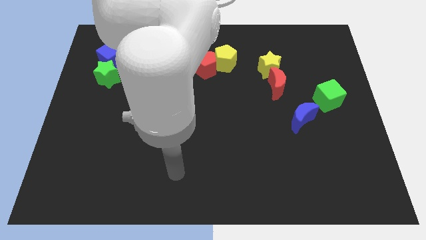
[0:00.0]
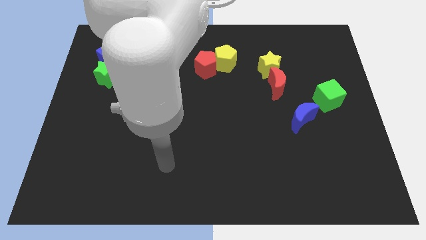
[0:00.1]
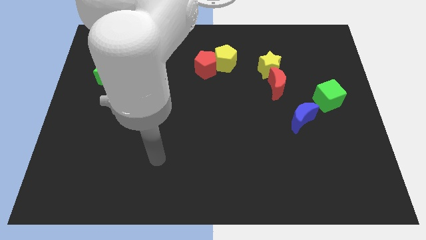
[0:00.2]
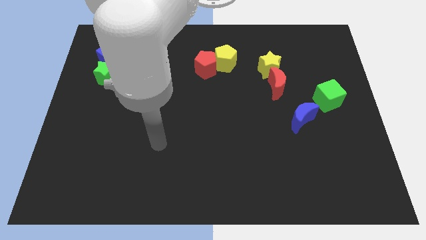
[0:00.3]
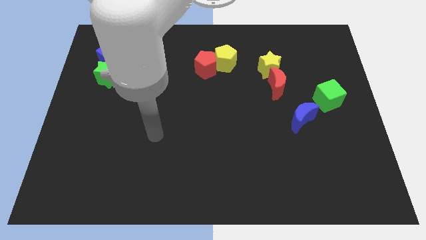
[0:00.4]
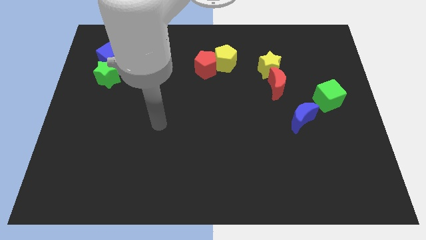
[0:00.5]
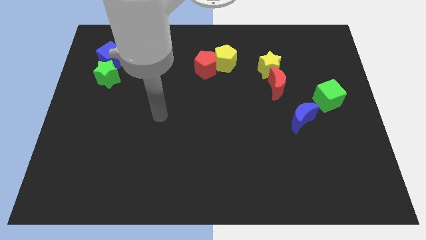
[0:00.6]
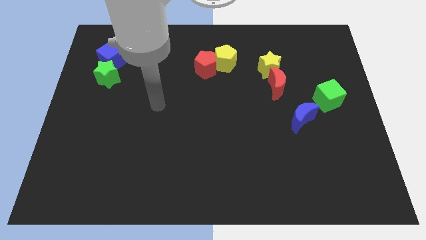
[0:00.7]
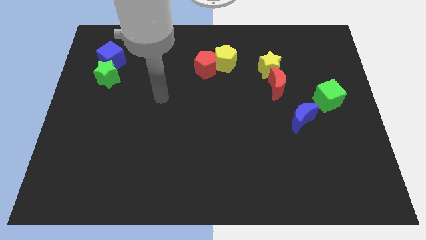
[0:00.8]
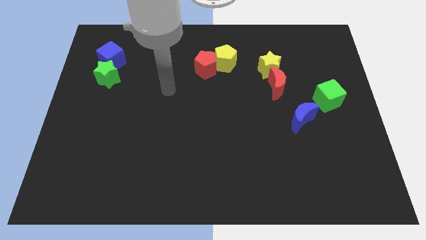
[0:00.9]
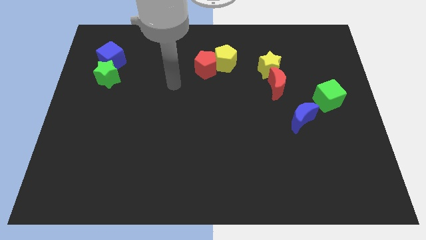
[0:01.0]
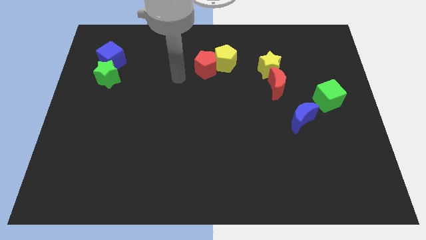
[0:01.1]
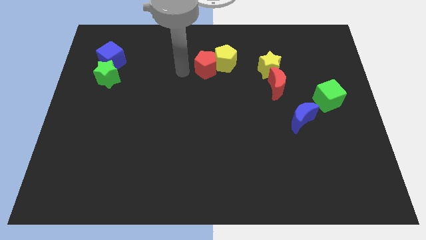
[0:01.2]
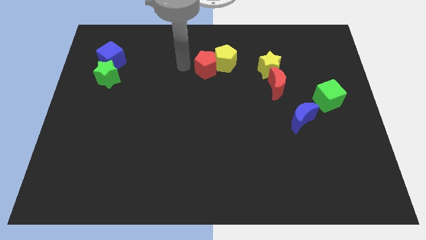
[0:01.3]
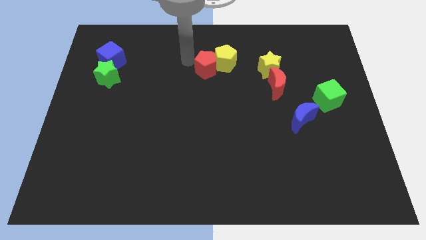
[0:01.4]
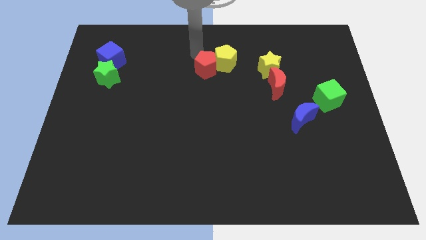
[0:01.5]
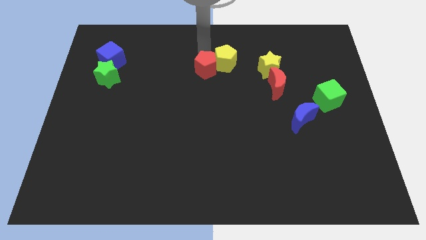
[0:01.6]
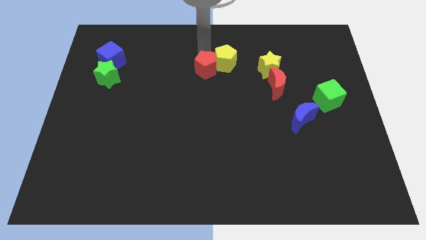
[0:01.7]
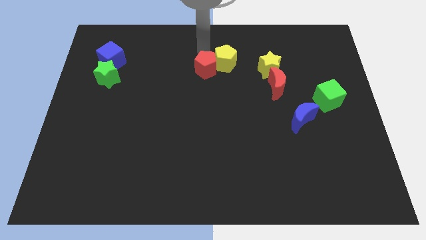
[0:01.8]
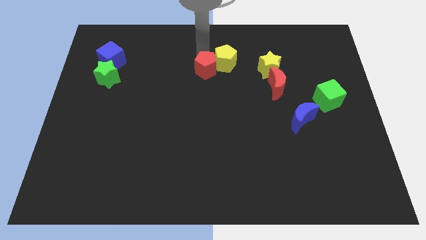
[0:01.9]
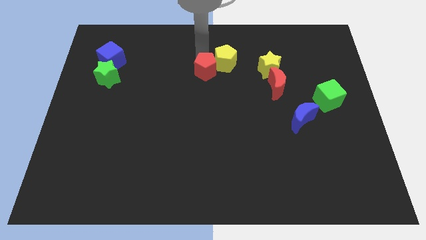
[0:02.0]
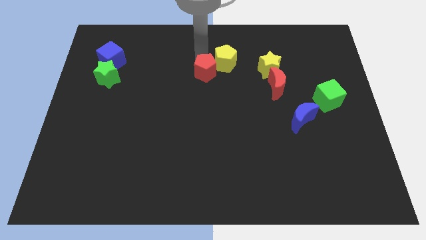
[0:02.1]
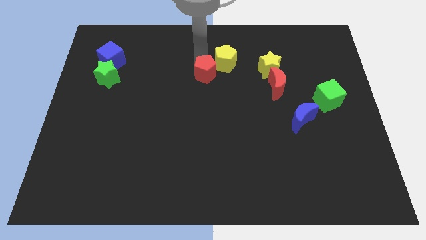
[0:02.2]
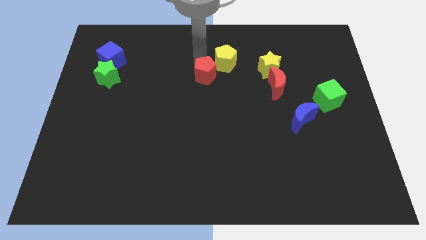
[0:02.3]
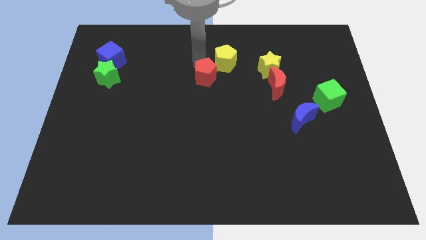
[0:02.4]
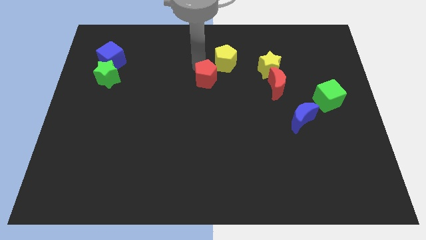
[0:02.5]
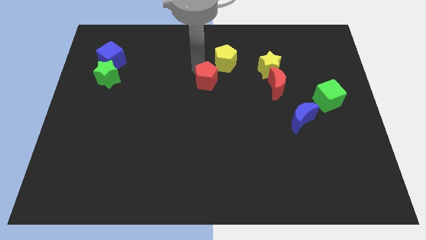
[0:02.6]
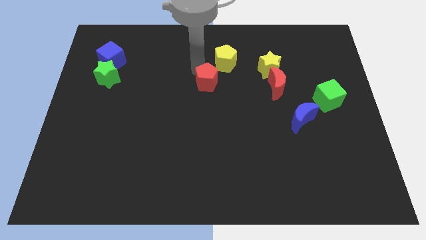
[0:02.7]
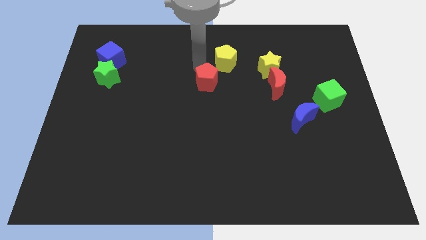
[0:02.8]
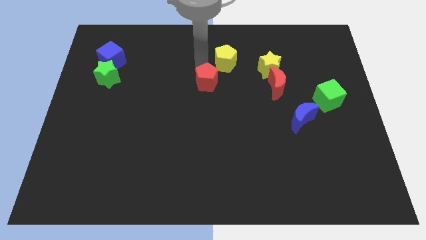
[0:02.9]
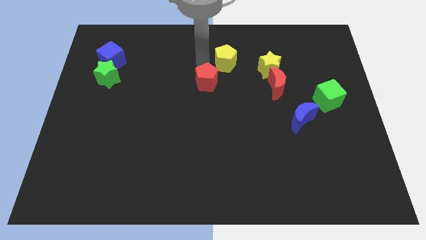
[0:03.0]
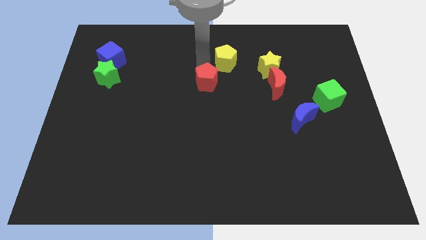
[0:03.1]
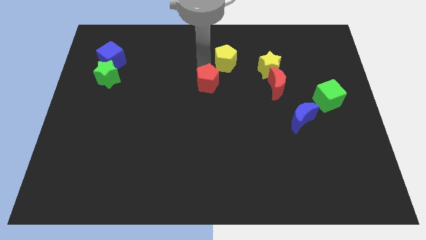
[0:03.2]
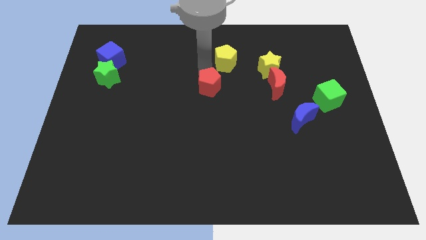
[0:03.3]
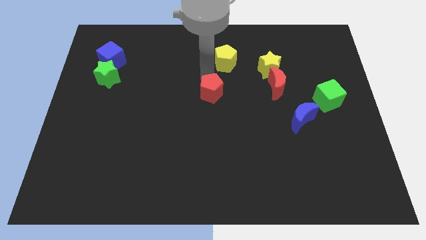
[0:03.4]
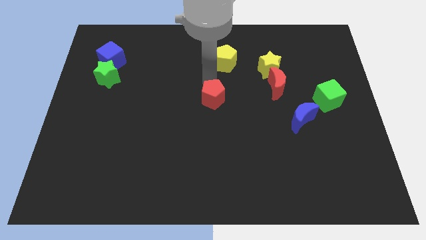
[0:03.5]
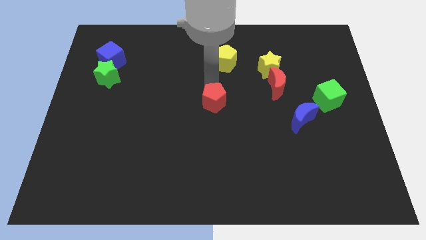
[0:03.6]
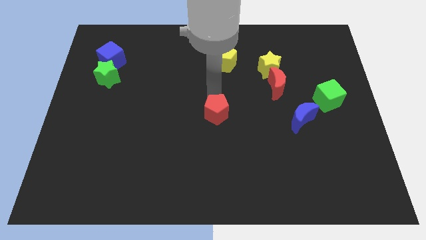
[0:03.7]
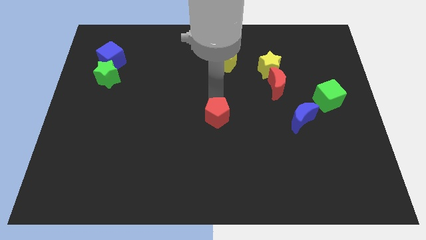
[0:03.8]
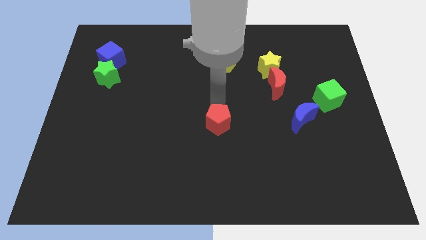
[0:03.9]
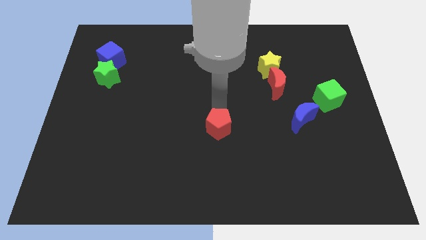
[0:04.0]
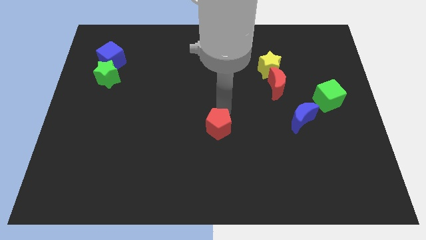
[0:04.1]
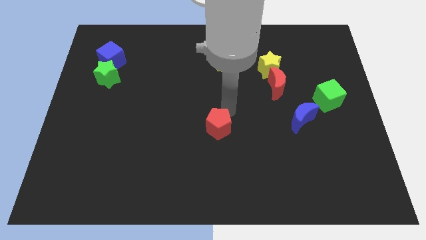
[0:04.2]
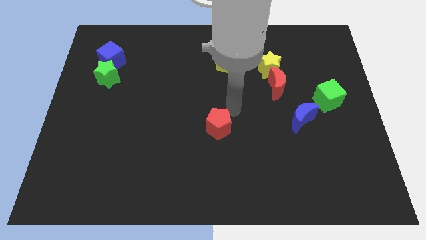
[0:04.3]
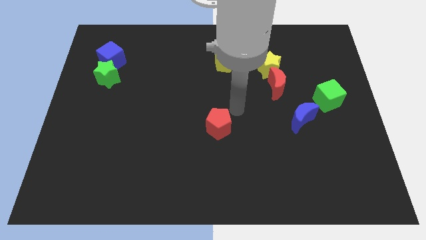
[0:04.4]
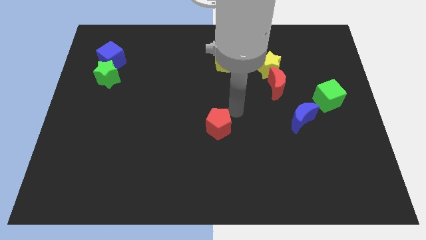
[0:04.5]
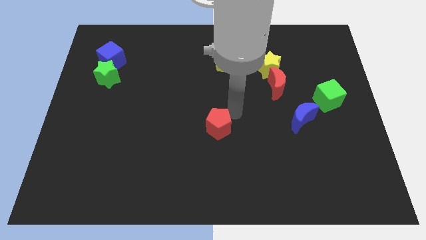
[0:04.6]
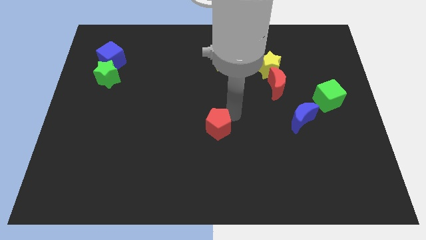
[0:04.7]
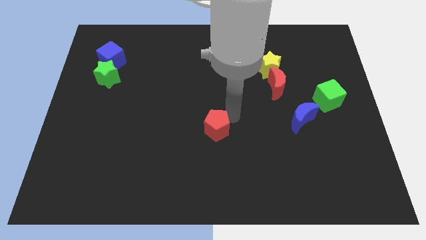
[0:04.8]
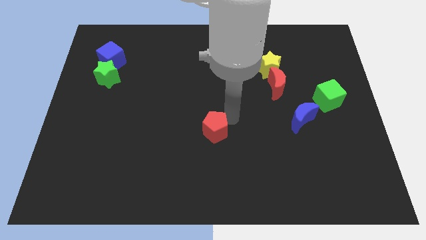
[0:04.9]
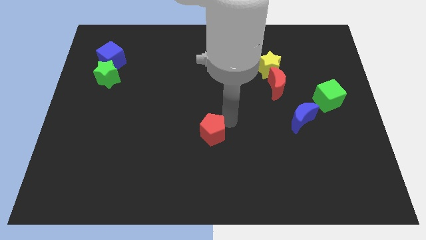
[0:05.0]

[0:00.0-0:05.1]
push the red pentagon down

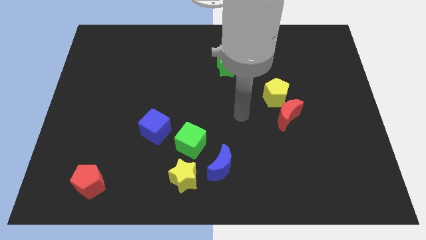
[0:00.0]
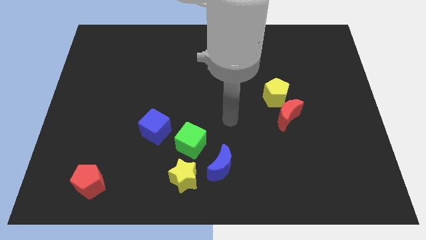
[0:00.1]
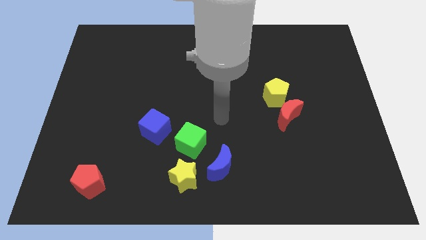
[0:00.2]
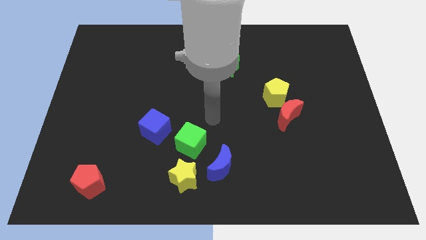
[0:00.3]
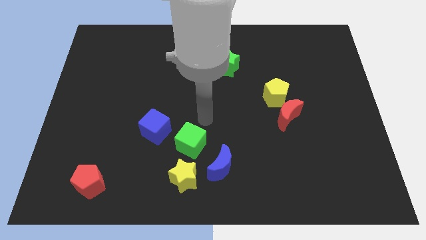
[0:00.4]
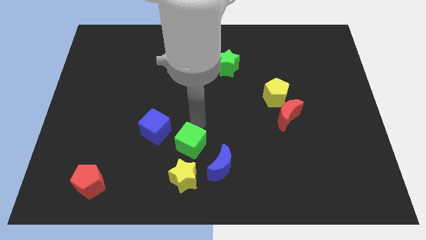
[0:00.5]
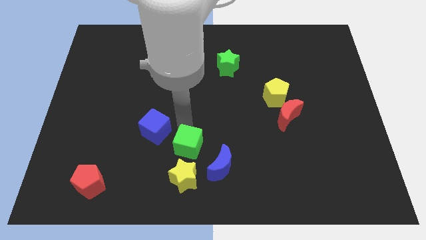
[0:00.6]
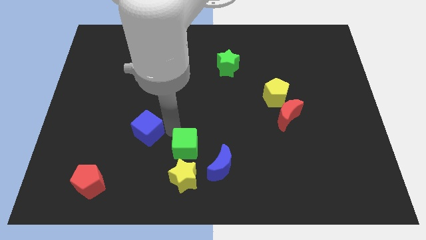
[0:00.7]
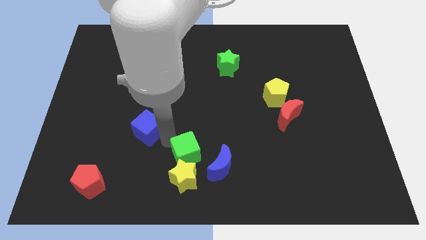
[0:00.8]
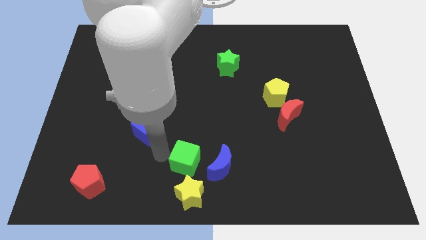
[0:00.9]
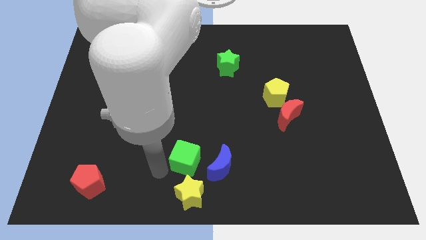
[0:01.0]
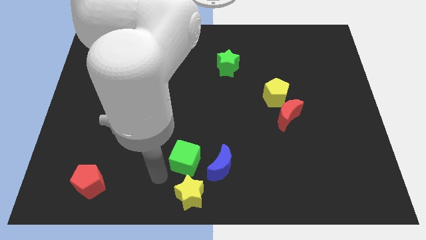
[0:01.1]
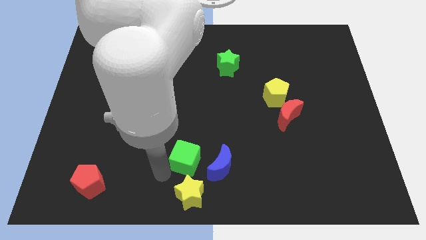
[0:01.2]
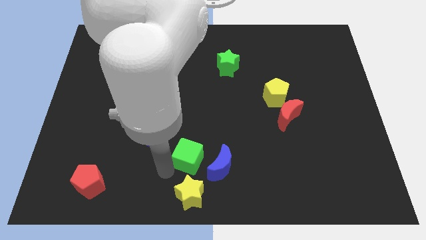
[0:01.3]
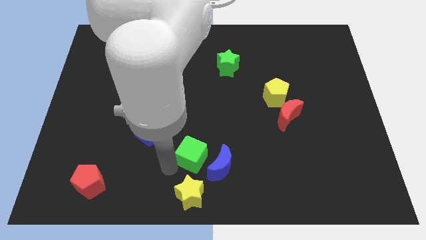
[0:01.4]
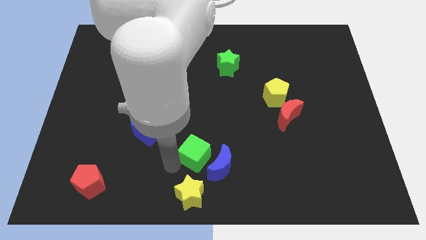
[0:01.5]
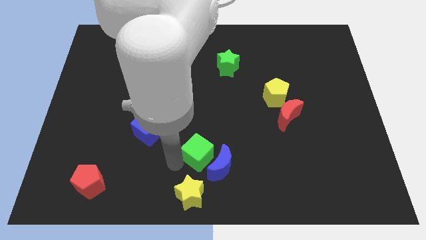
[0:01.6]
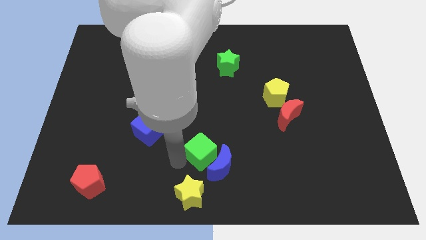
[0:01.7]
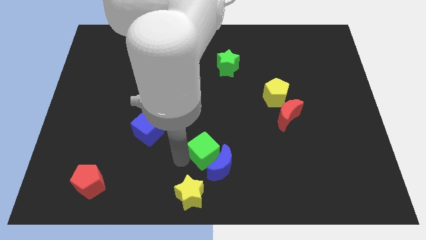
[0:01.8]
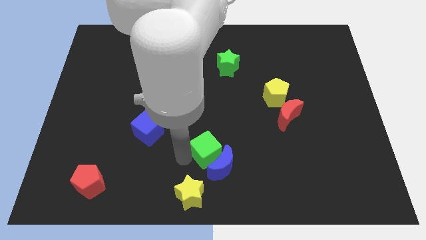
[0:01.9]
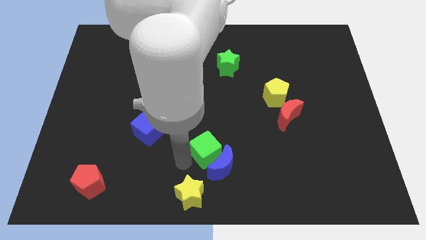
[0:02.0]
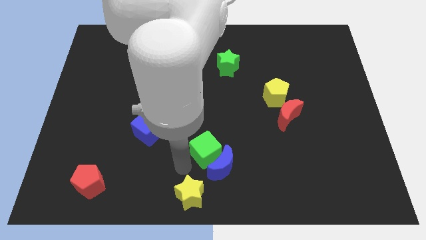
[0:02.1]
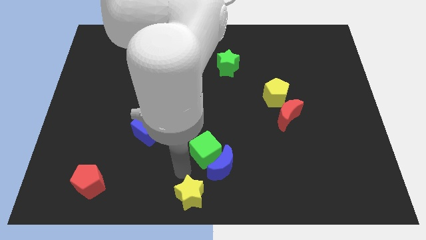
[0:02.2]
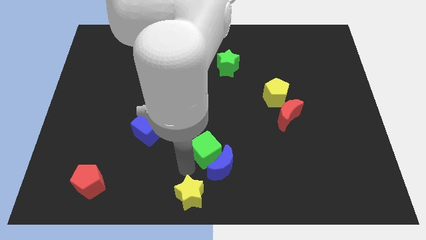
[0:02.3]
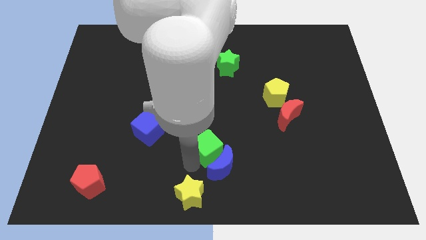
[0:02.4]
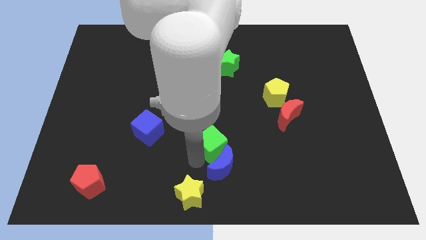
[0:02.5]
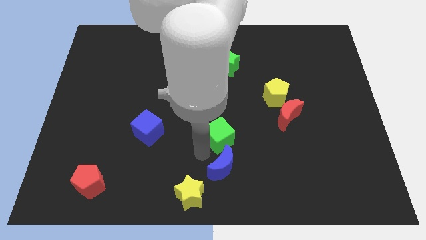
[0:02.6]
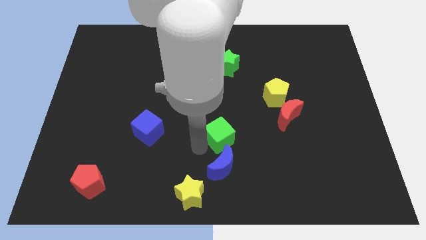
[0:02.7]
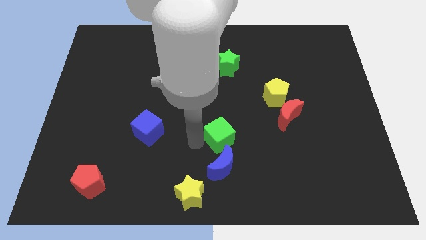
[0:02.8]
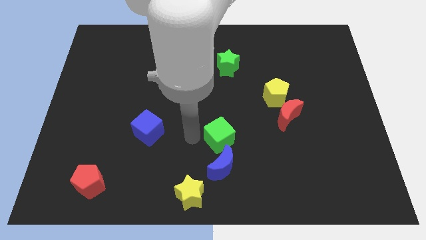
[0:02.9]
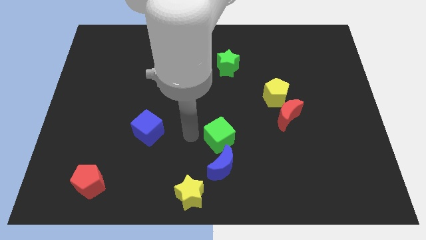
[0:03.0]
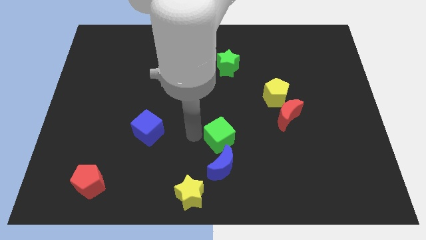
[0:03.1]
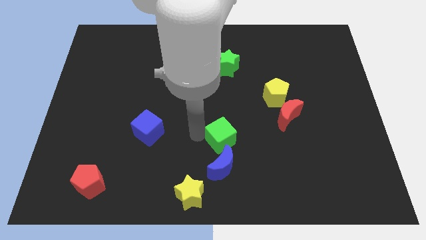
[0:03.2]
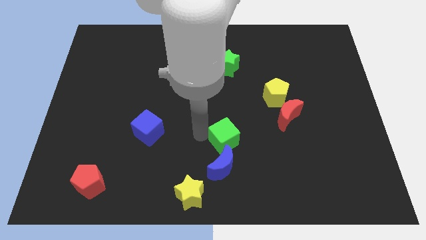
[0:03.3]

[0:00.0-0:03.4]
slightly move the green cube to the right

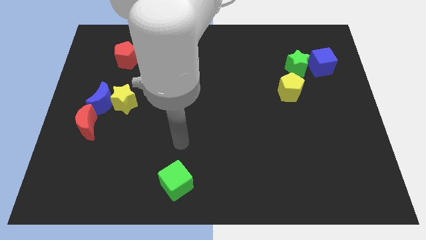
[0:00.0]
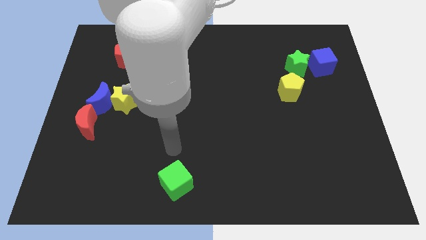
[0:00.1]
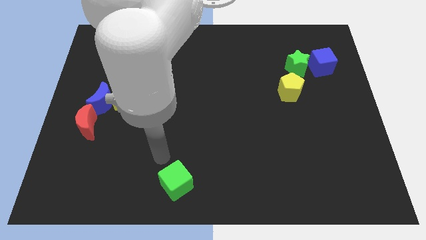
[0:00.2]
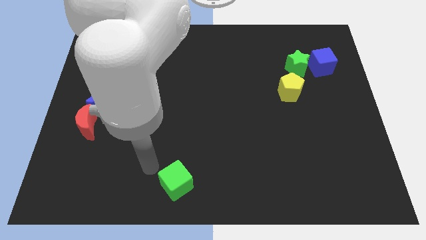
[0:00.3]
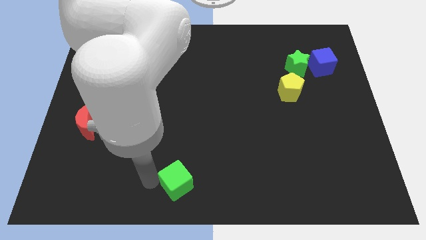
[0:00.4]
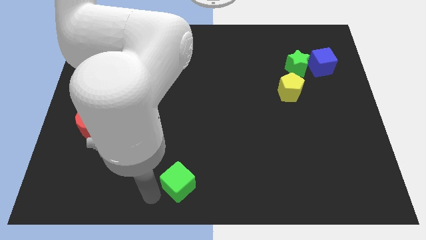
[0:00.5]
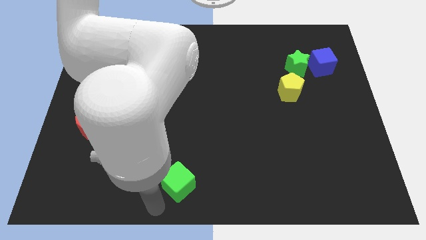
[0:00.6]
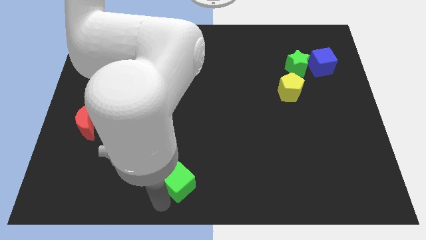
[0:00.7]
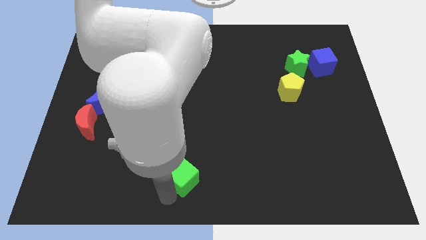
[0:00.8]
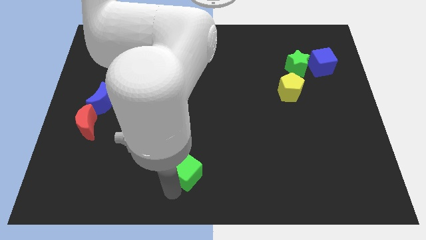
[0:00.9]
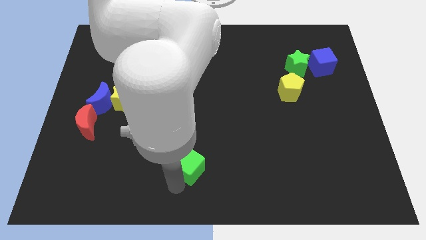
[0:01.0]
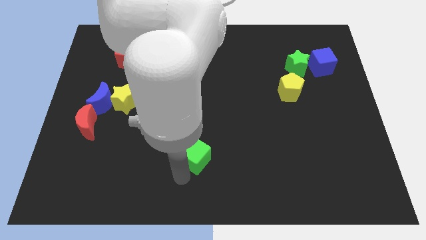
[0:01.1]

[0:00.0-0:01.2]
move the green cube diagonally up and to the right slightly
